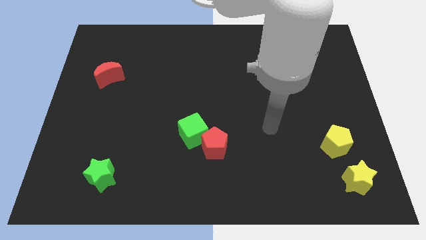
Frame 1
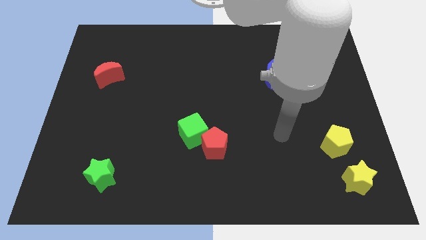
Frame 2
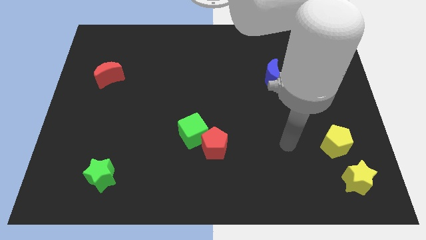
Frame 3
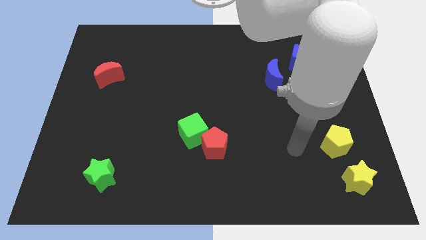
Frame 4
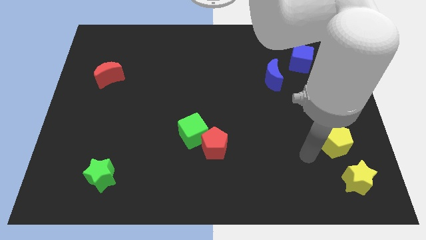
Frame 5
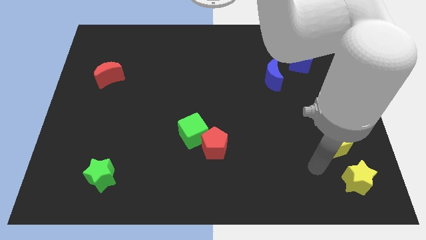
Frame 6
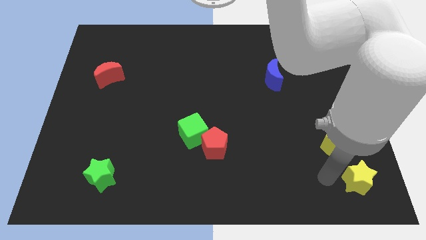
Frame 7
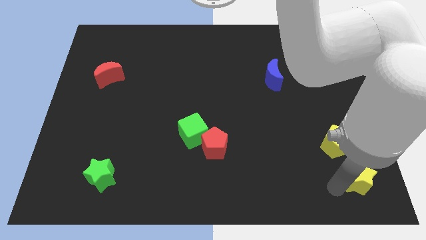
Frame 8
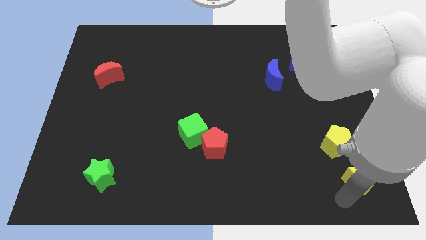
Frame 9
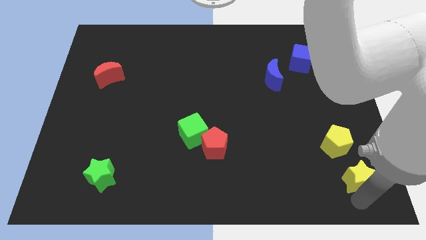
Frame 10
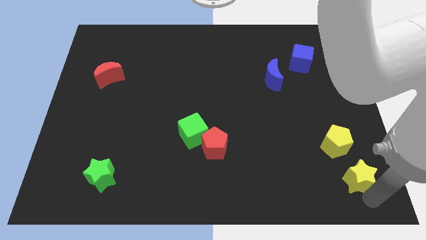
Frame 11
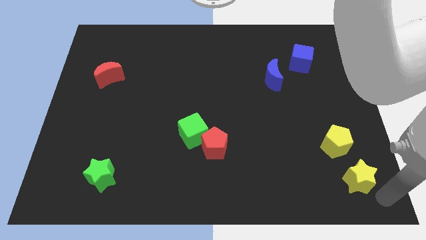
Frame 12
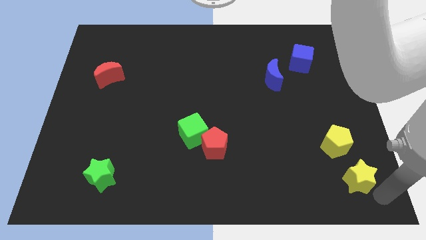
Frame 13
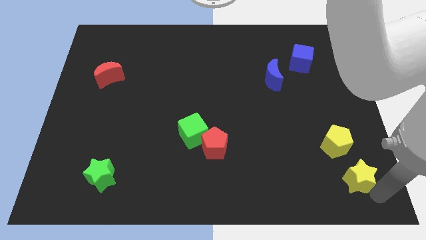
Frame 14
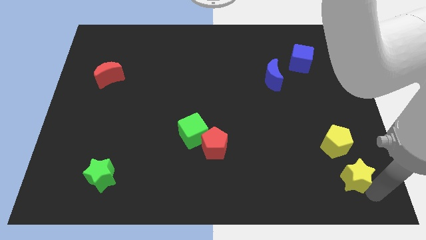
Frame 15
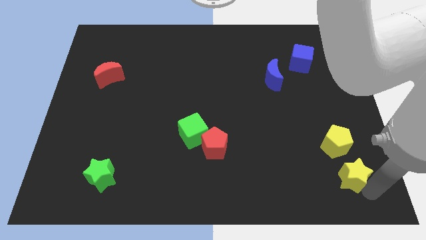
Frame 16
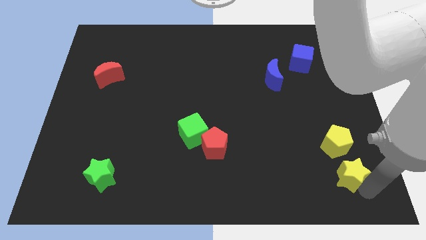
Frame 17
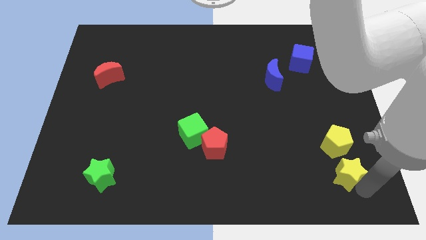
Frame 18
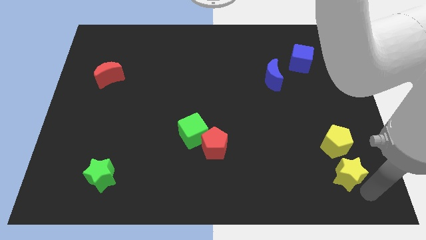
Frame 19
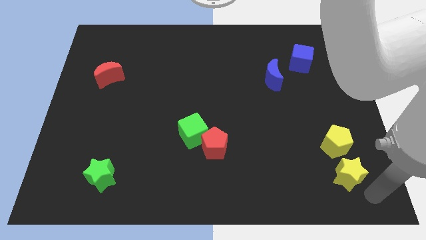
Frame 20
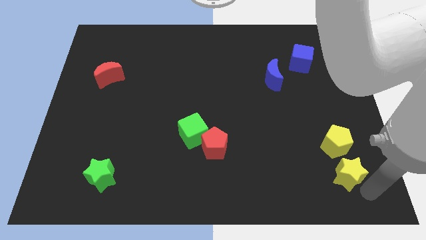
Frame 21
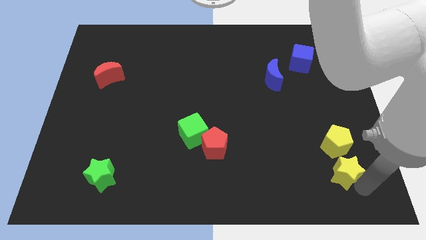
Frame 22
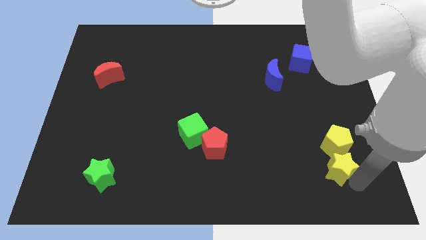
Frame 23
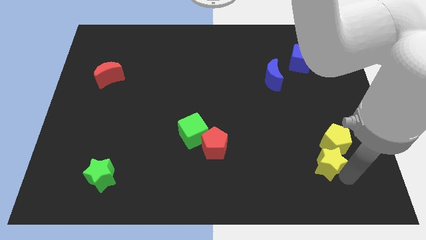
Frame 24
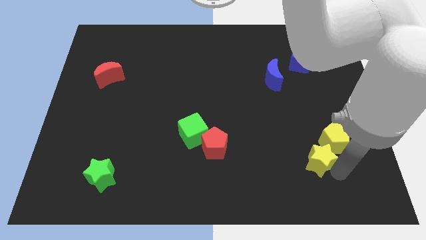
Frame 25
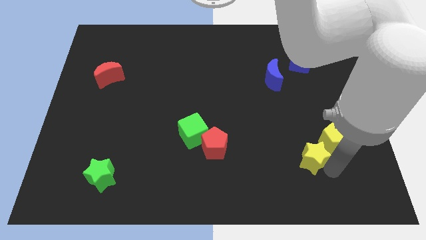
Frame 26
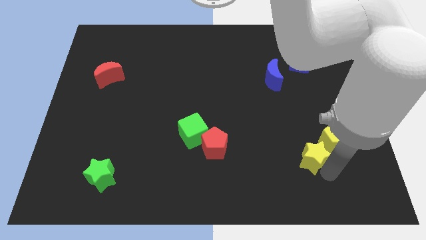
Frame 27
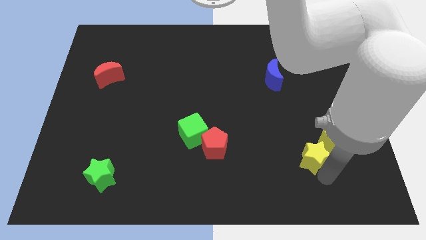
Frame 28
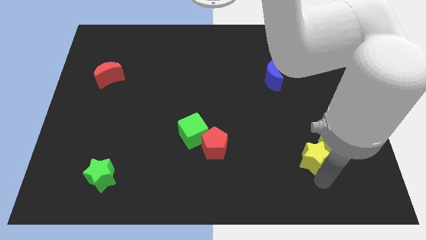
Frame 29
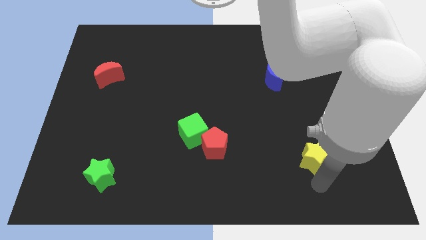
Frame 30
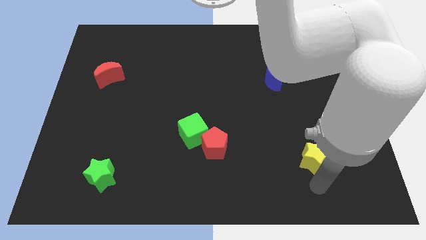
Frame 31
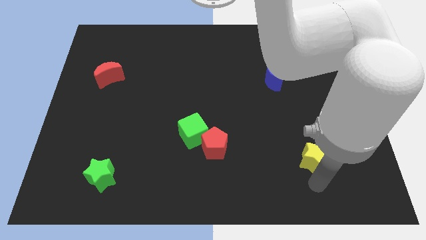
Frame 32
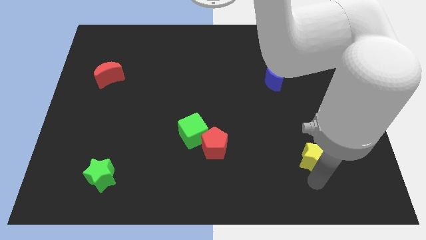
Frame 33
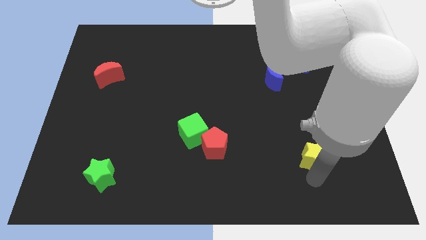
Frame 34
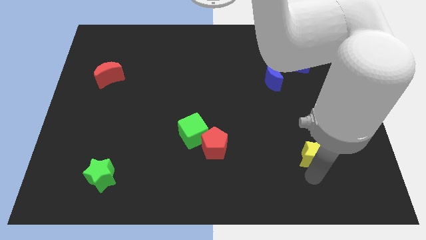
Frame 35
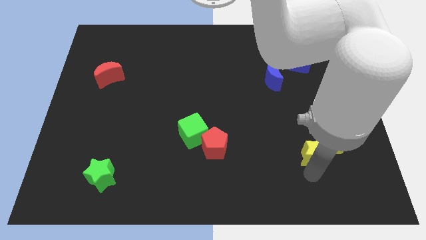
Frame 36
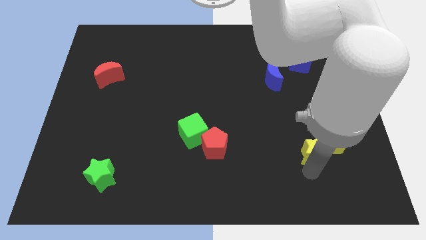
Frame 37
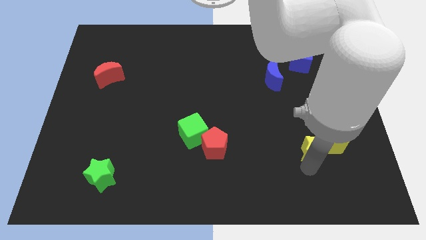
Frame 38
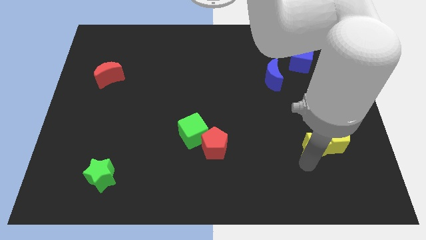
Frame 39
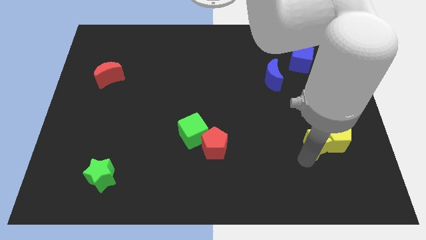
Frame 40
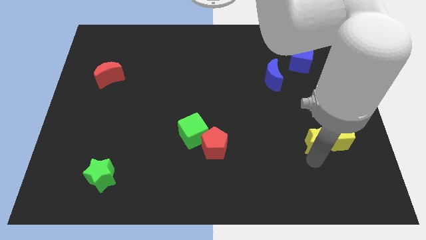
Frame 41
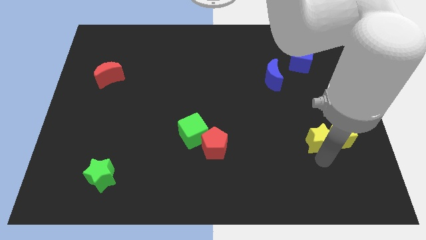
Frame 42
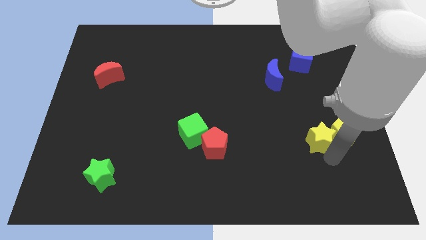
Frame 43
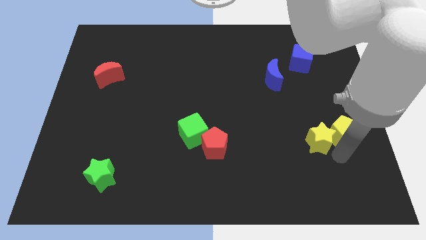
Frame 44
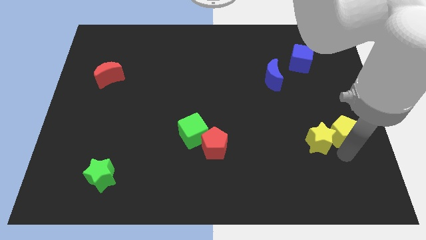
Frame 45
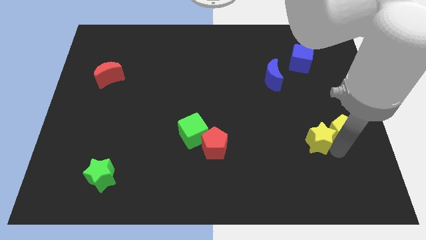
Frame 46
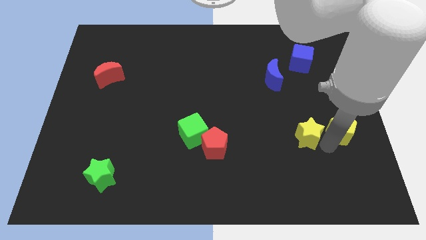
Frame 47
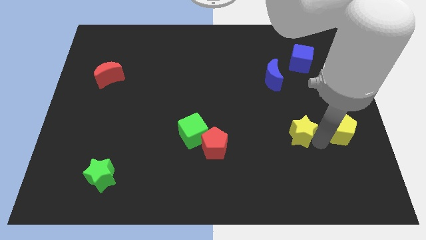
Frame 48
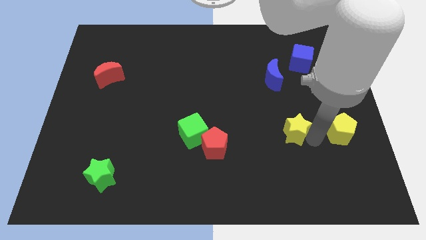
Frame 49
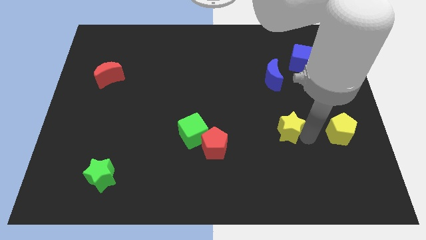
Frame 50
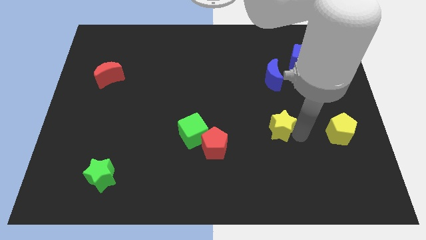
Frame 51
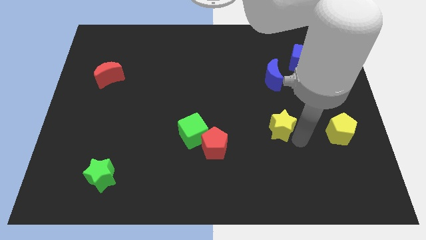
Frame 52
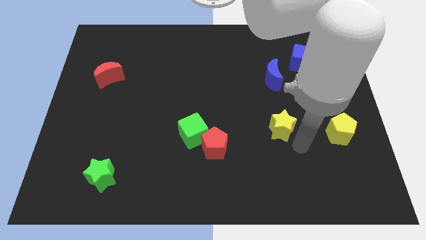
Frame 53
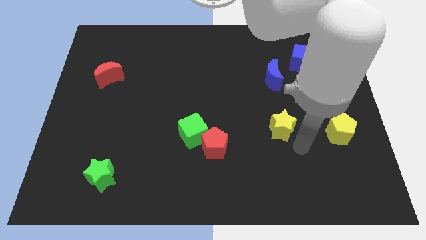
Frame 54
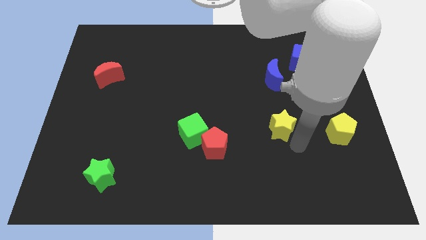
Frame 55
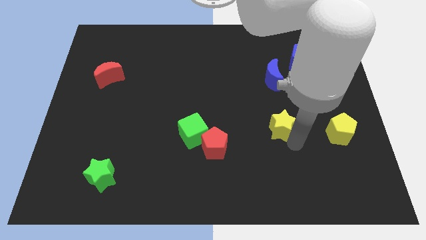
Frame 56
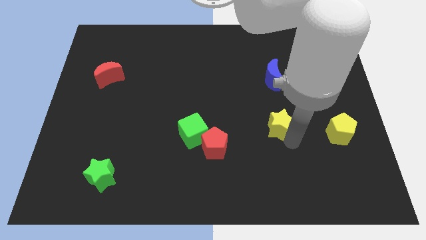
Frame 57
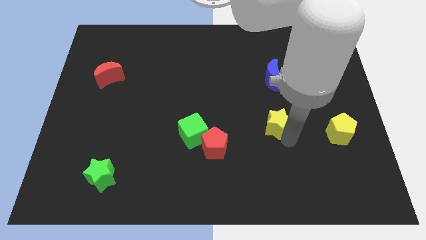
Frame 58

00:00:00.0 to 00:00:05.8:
push the yellow star diagonally up and to the left

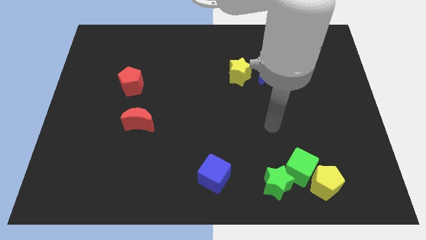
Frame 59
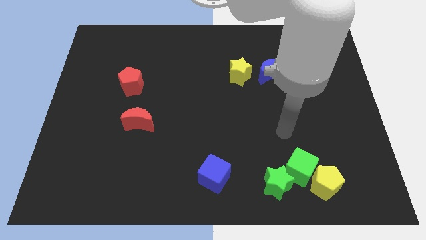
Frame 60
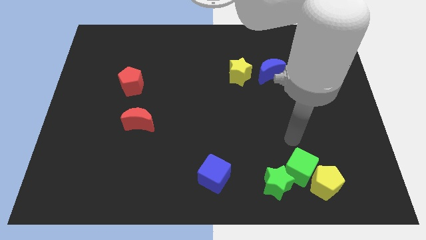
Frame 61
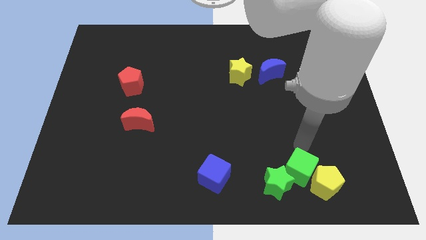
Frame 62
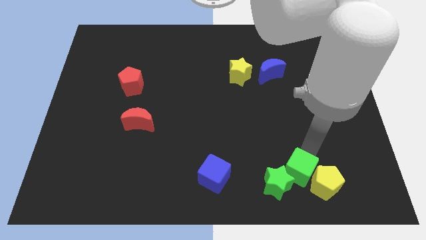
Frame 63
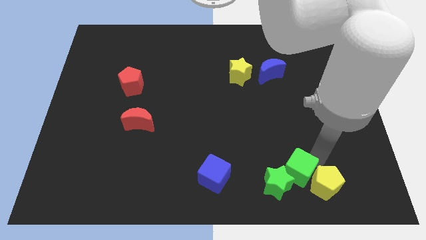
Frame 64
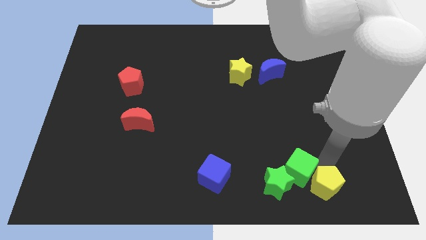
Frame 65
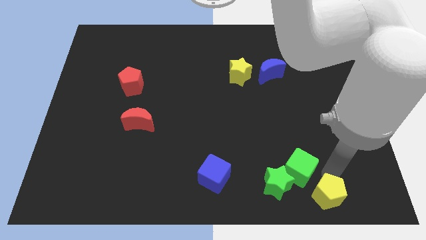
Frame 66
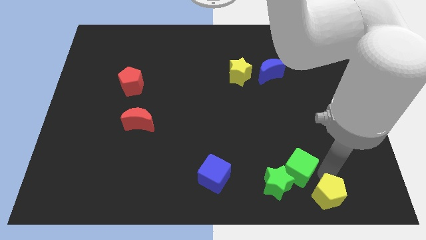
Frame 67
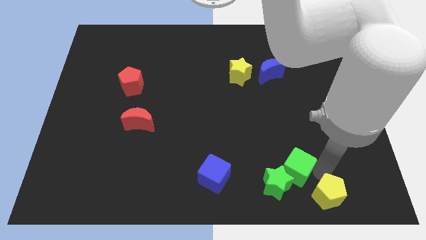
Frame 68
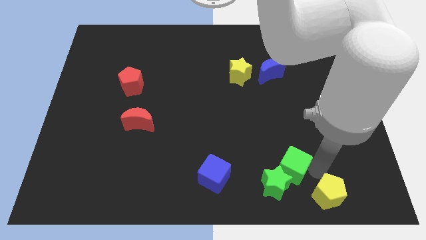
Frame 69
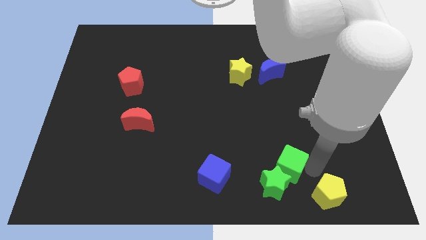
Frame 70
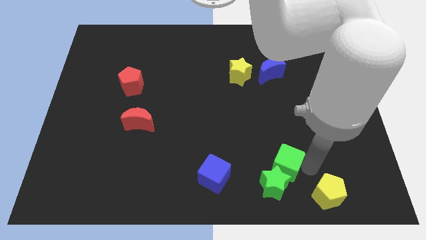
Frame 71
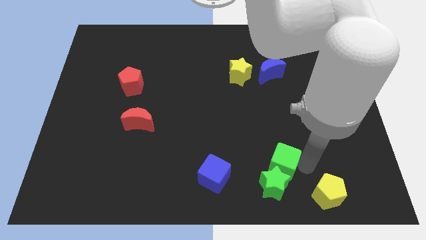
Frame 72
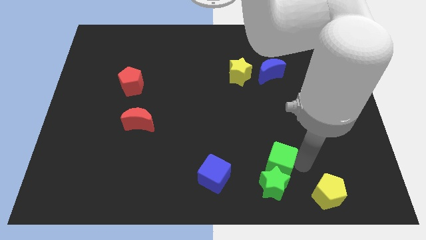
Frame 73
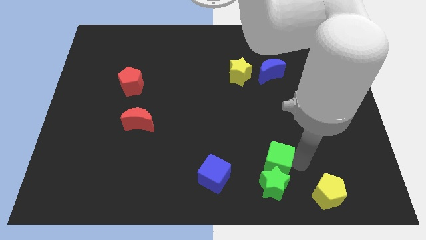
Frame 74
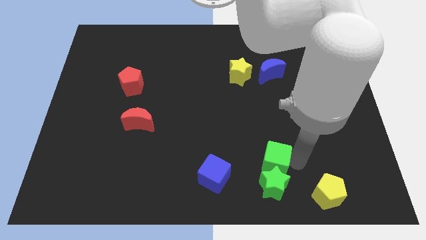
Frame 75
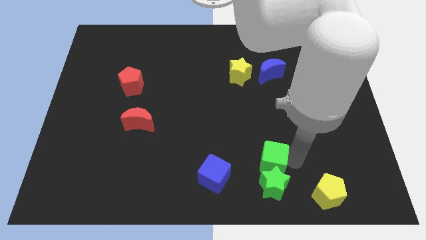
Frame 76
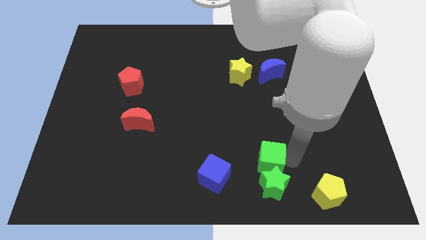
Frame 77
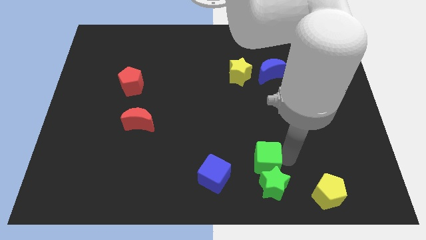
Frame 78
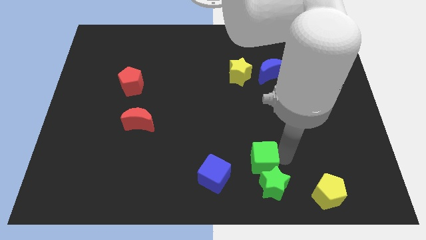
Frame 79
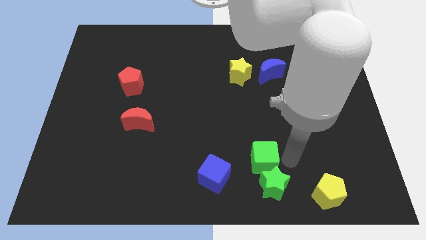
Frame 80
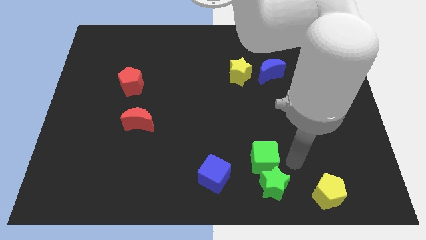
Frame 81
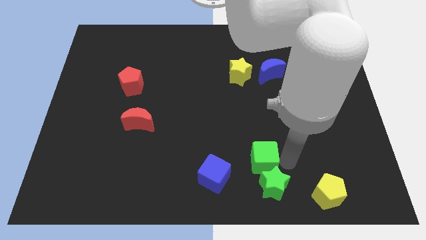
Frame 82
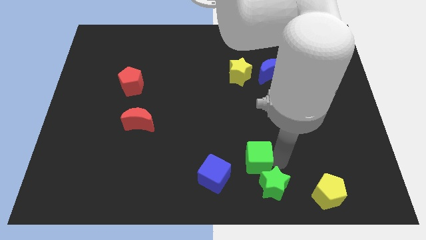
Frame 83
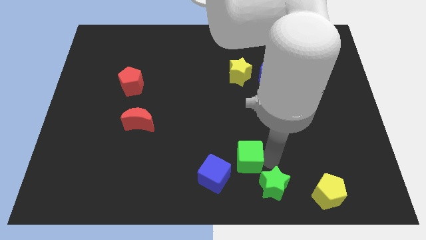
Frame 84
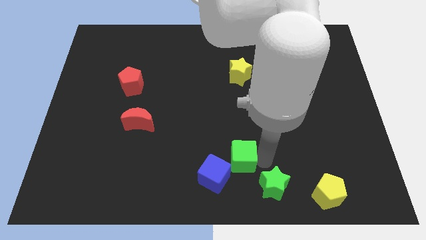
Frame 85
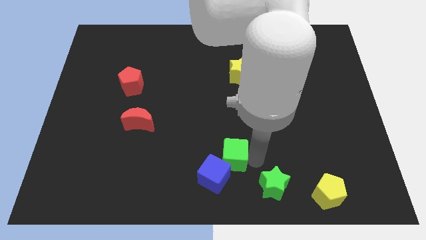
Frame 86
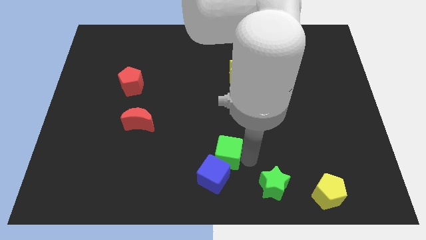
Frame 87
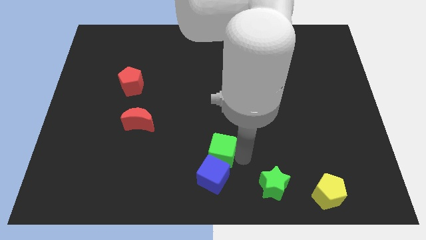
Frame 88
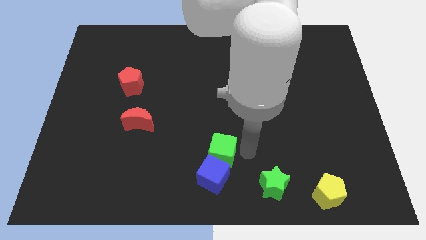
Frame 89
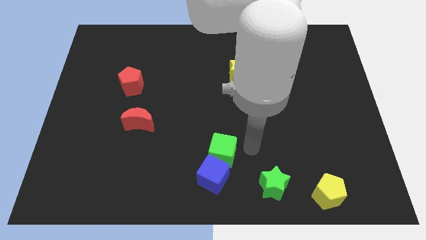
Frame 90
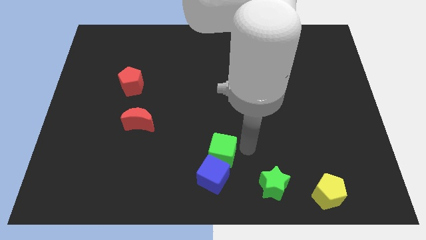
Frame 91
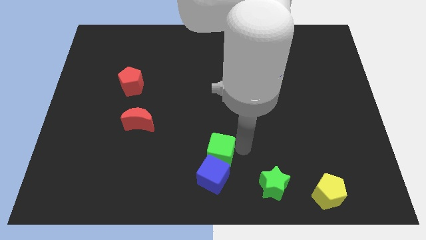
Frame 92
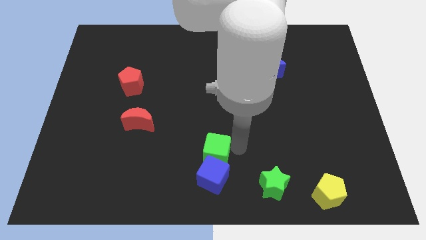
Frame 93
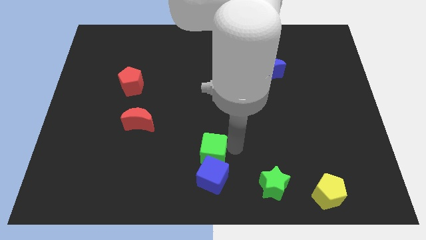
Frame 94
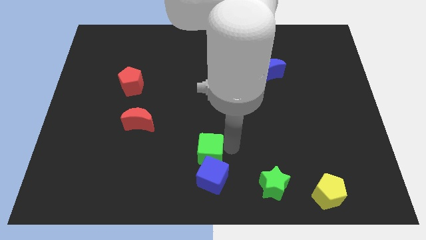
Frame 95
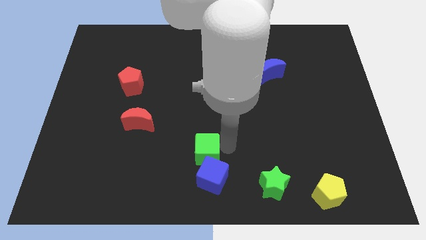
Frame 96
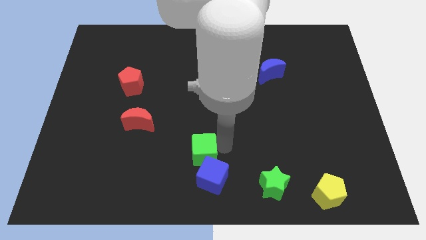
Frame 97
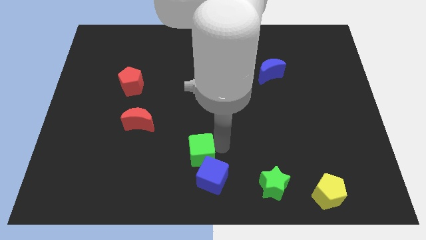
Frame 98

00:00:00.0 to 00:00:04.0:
slide the green cube to the left
